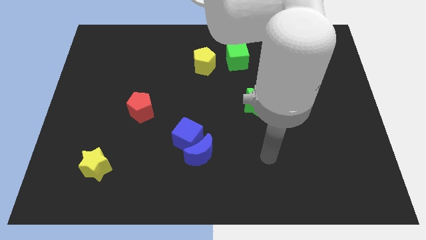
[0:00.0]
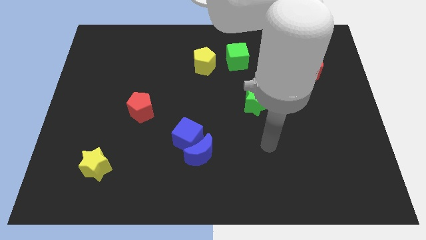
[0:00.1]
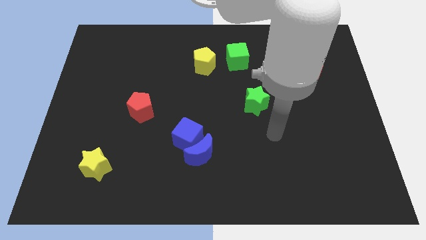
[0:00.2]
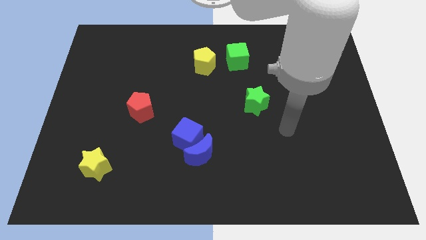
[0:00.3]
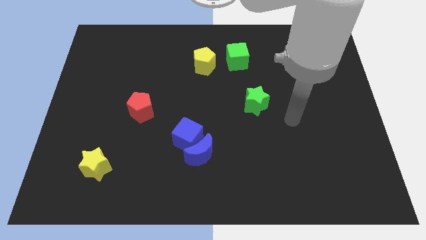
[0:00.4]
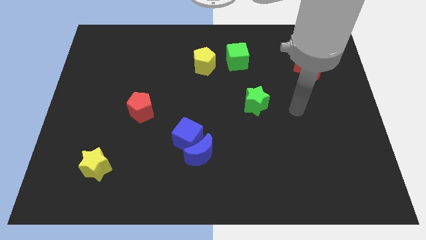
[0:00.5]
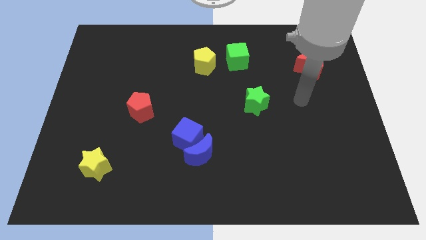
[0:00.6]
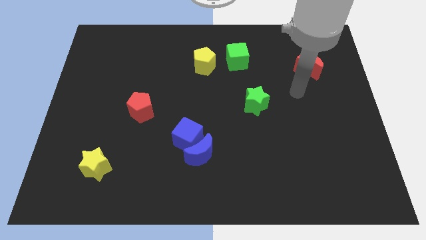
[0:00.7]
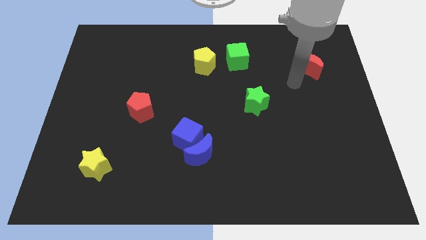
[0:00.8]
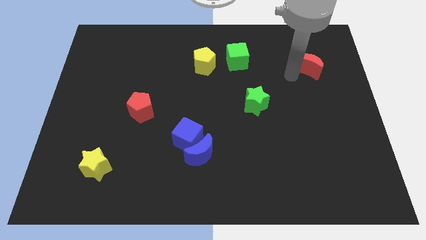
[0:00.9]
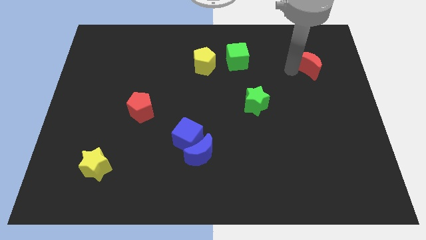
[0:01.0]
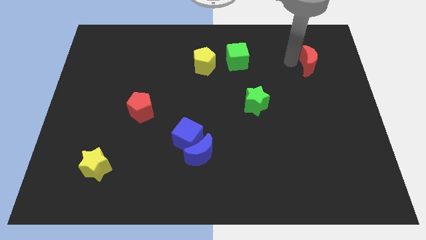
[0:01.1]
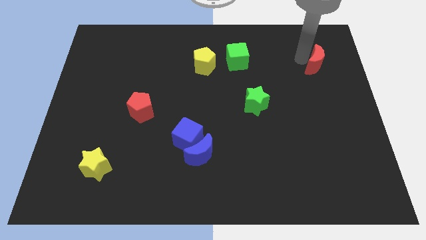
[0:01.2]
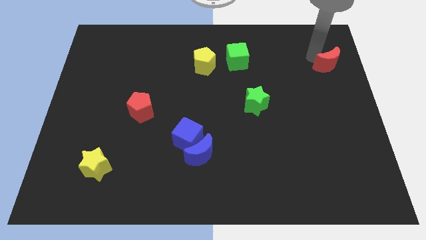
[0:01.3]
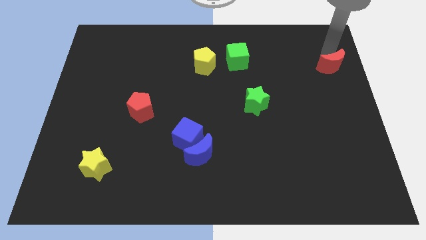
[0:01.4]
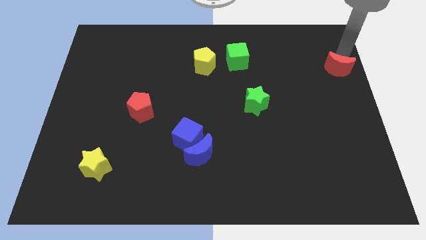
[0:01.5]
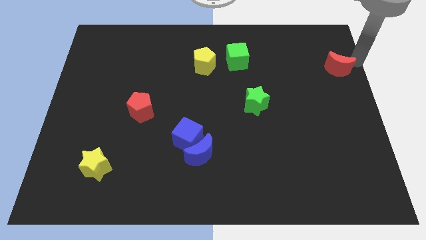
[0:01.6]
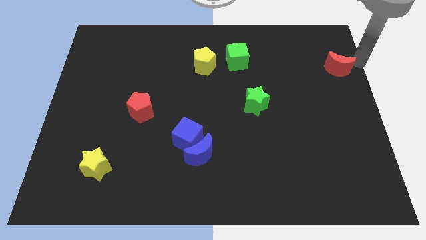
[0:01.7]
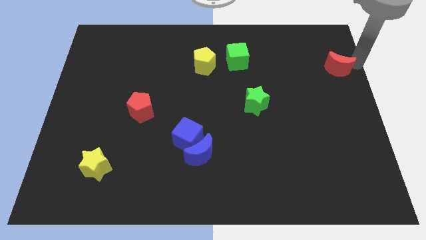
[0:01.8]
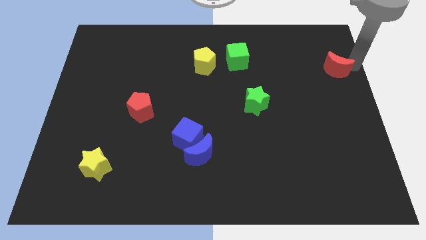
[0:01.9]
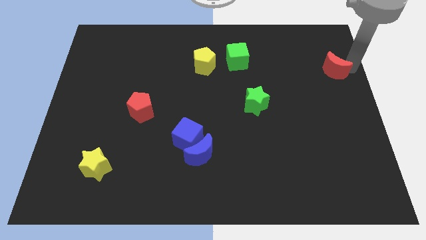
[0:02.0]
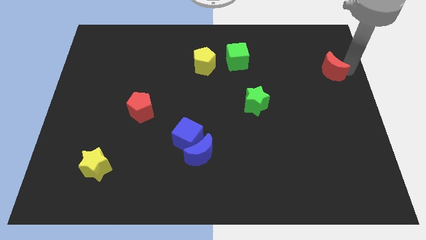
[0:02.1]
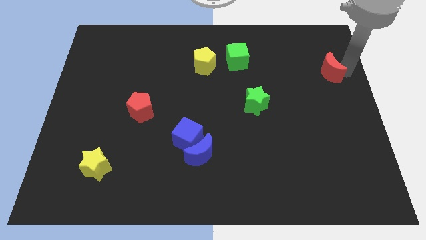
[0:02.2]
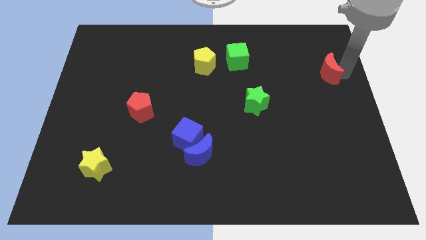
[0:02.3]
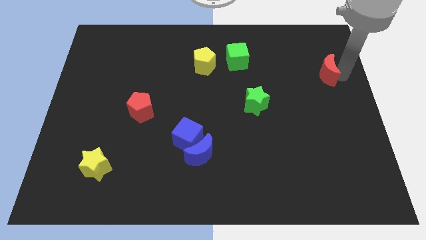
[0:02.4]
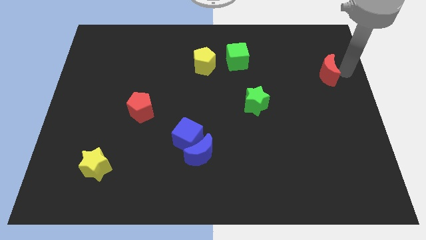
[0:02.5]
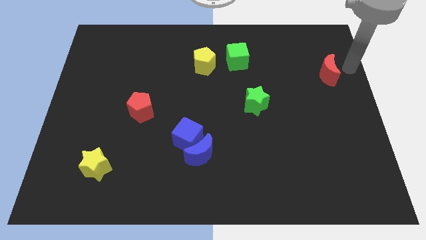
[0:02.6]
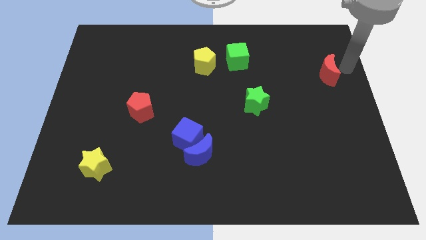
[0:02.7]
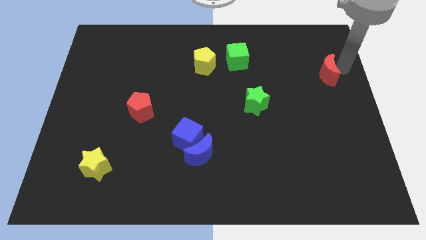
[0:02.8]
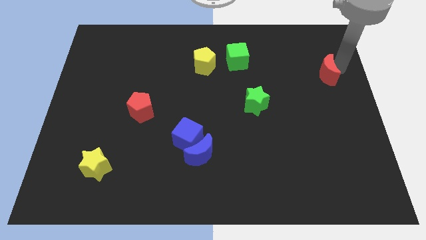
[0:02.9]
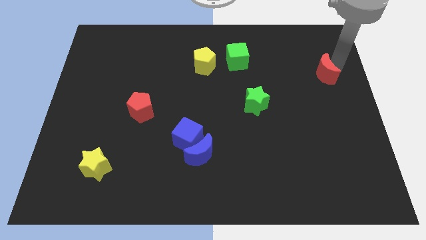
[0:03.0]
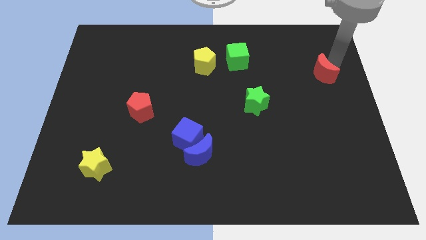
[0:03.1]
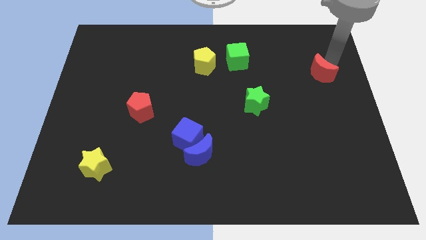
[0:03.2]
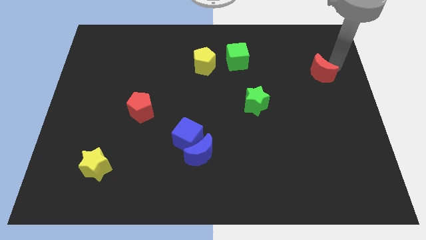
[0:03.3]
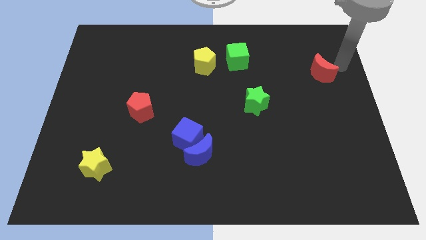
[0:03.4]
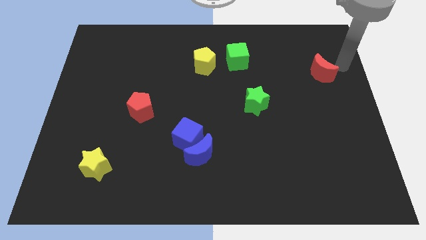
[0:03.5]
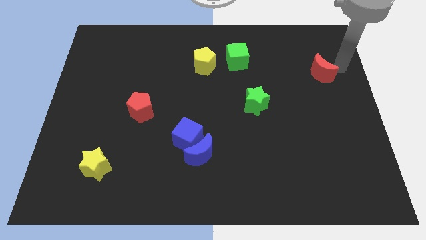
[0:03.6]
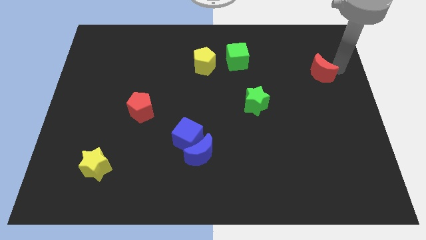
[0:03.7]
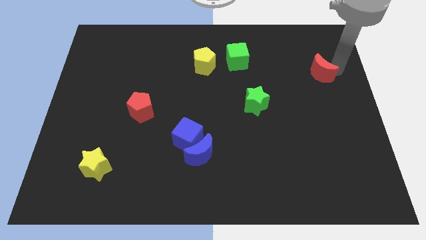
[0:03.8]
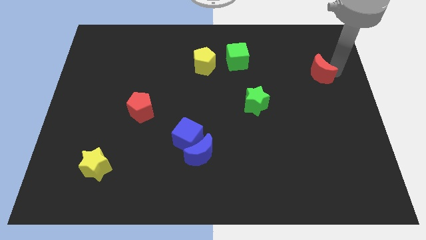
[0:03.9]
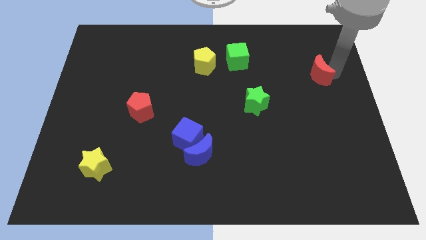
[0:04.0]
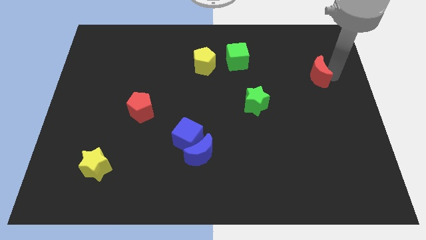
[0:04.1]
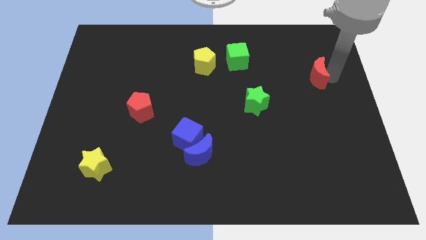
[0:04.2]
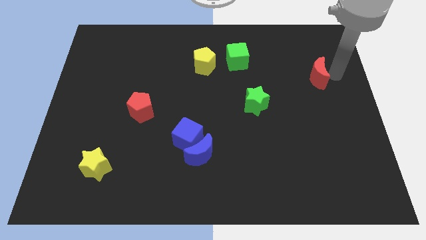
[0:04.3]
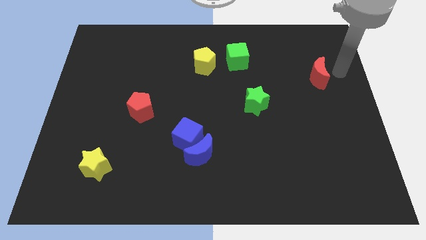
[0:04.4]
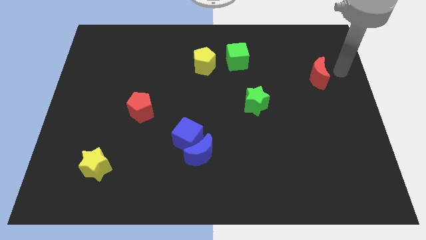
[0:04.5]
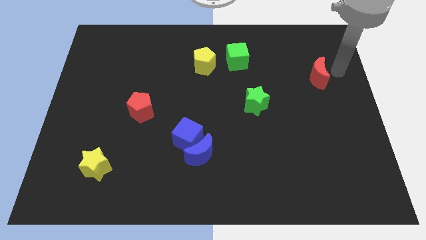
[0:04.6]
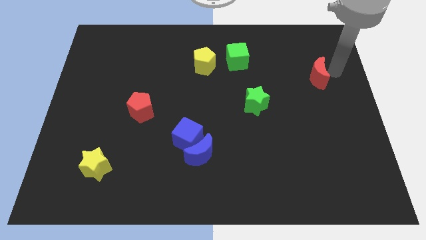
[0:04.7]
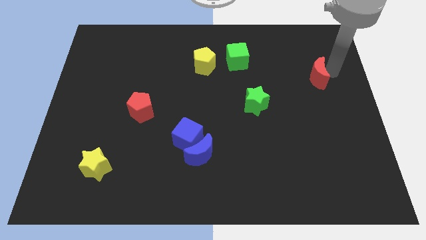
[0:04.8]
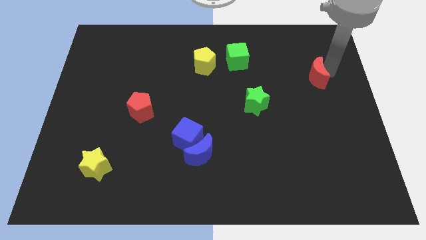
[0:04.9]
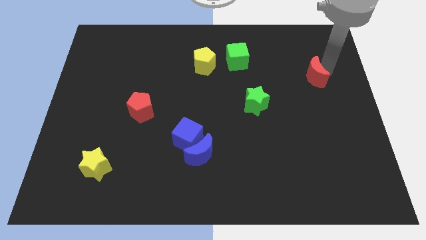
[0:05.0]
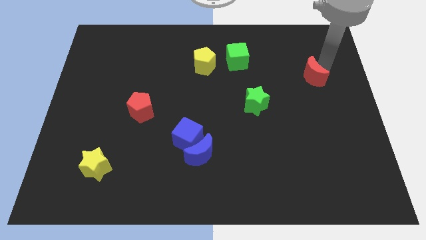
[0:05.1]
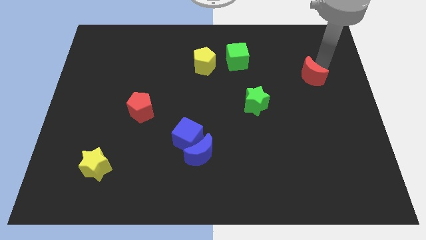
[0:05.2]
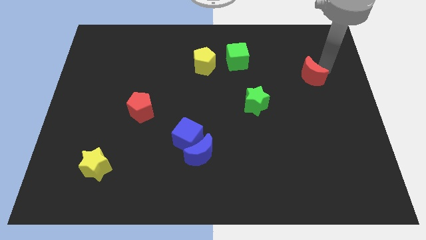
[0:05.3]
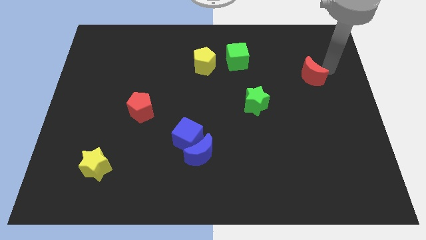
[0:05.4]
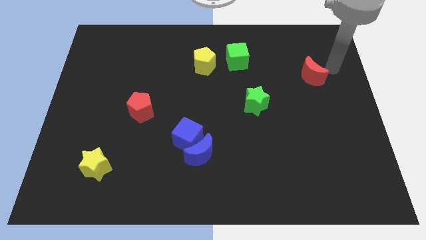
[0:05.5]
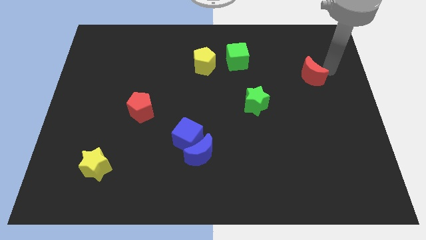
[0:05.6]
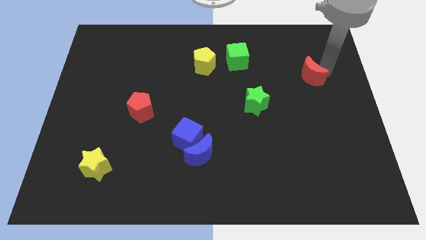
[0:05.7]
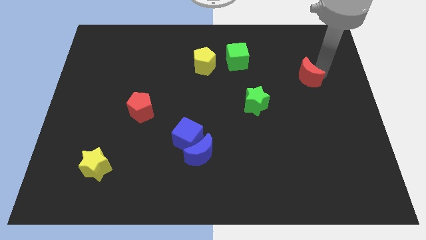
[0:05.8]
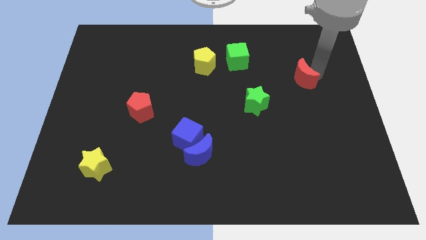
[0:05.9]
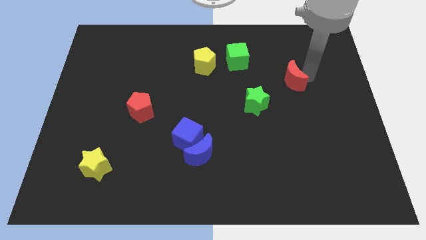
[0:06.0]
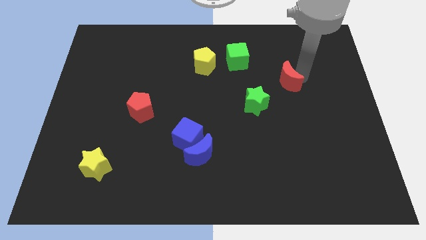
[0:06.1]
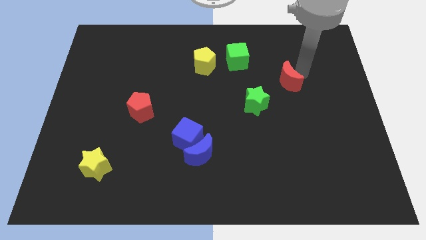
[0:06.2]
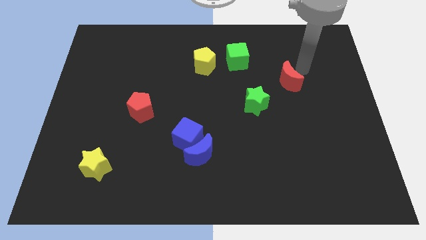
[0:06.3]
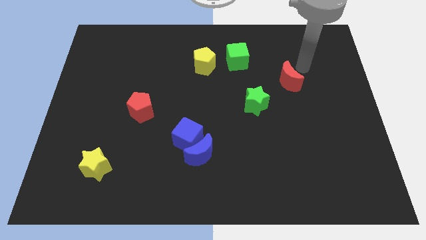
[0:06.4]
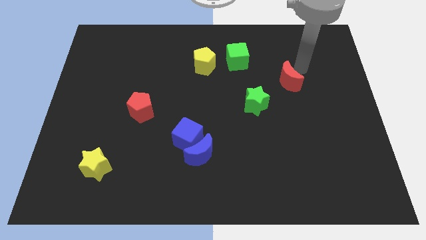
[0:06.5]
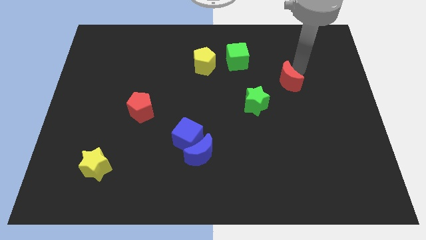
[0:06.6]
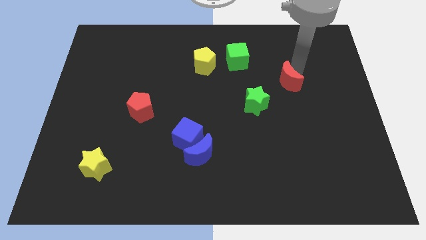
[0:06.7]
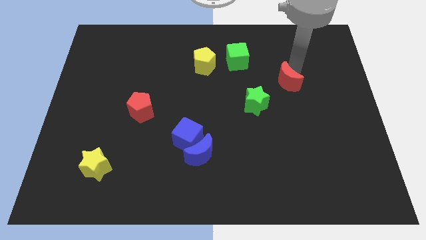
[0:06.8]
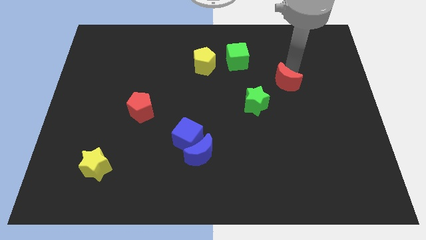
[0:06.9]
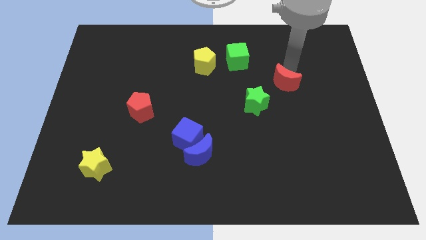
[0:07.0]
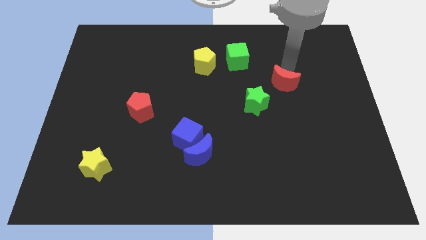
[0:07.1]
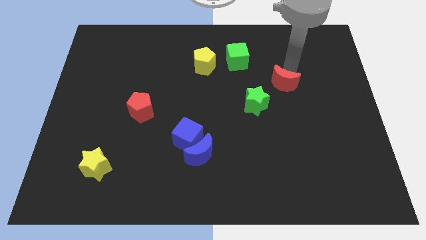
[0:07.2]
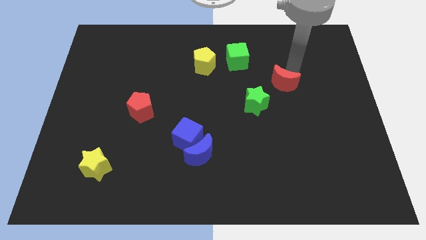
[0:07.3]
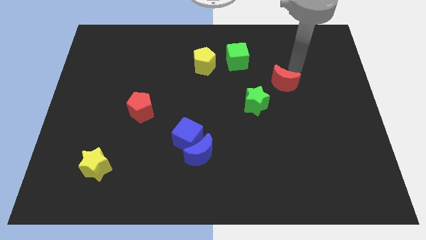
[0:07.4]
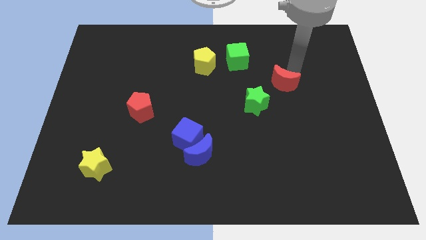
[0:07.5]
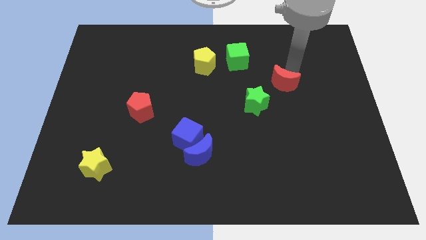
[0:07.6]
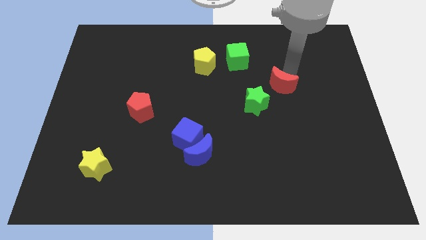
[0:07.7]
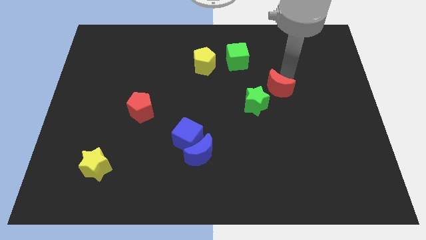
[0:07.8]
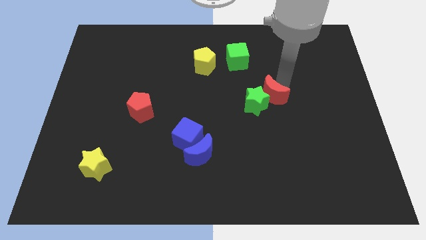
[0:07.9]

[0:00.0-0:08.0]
put the red moon close to the green star
